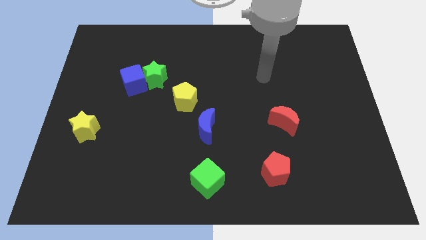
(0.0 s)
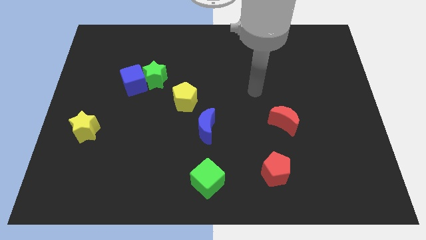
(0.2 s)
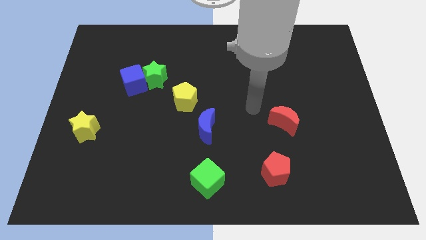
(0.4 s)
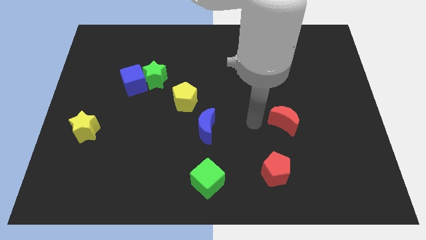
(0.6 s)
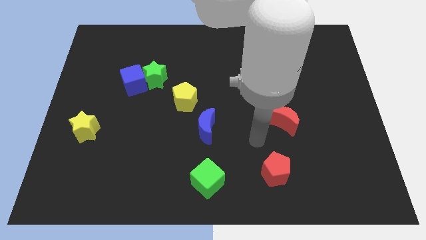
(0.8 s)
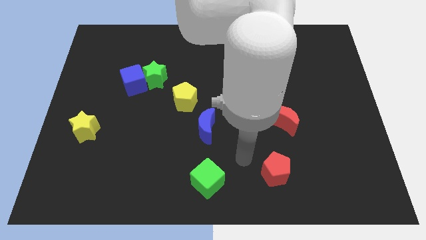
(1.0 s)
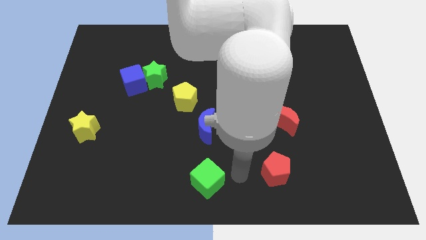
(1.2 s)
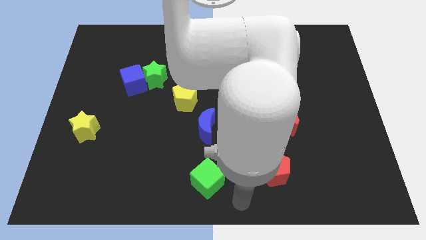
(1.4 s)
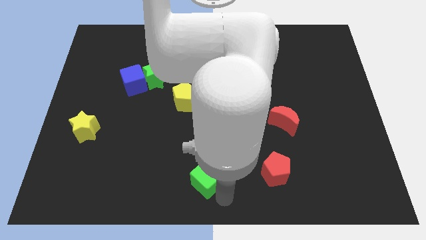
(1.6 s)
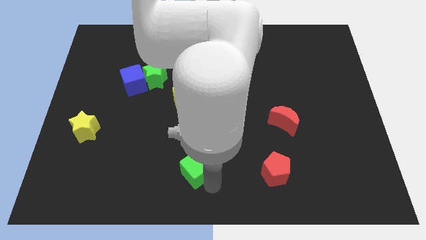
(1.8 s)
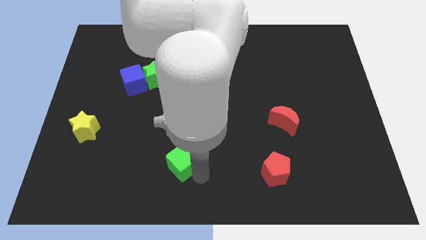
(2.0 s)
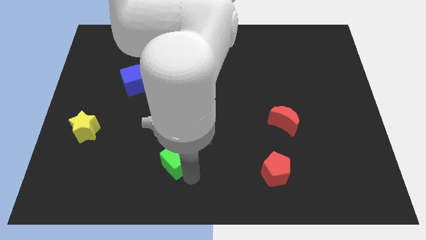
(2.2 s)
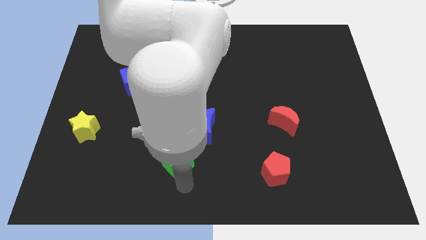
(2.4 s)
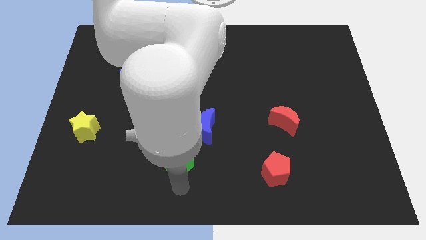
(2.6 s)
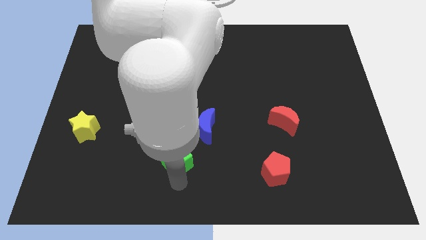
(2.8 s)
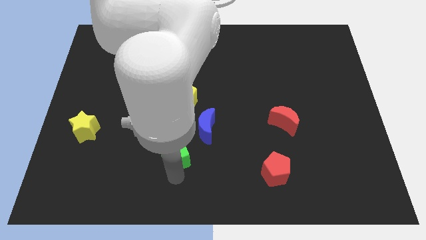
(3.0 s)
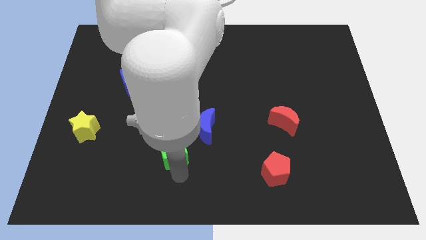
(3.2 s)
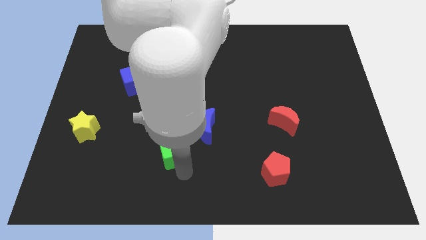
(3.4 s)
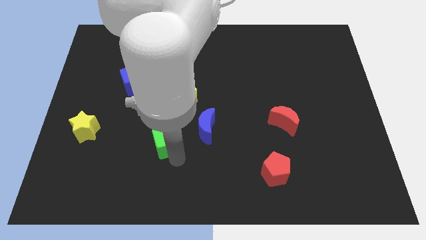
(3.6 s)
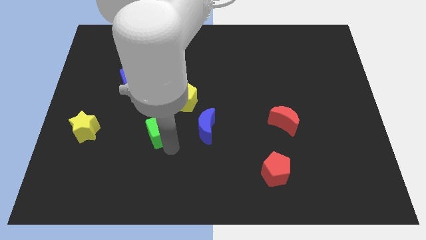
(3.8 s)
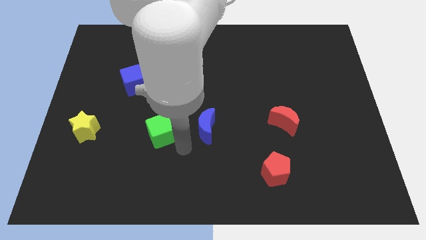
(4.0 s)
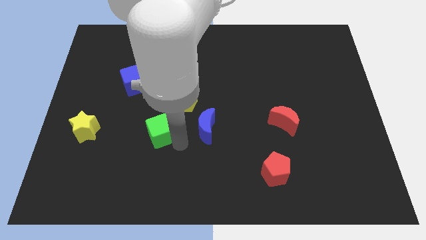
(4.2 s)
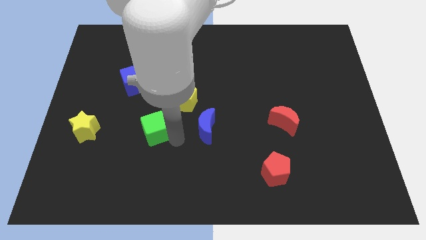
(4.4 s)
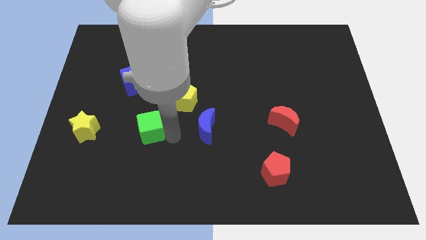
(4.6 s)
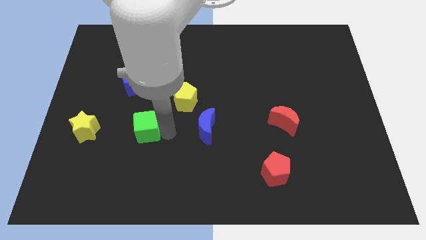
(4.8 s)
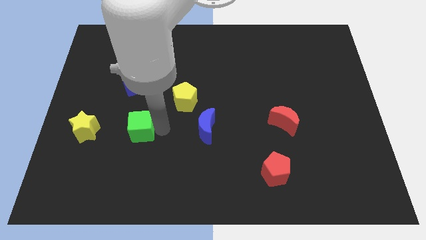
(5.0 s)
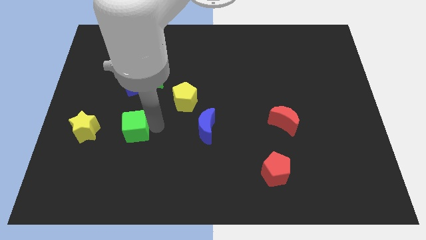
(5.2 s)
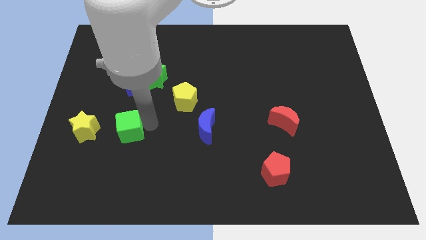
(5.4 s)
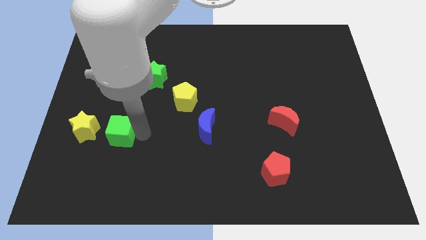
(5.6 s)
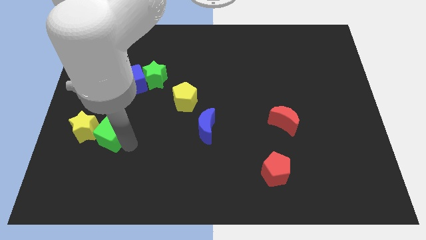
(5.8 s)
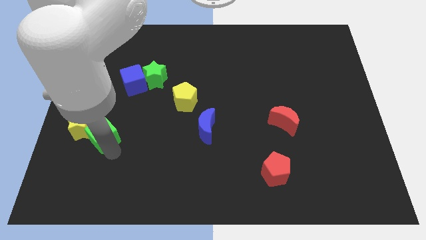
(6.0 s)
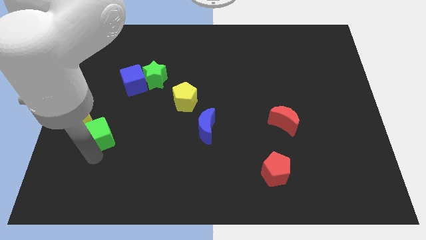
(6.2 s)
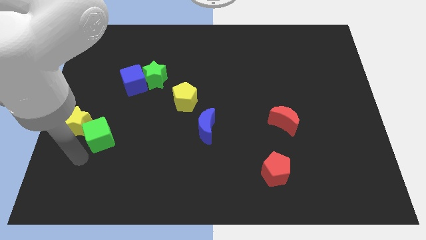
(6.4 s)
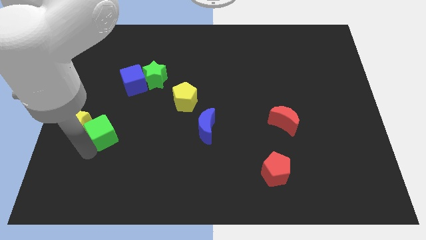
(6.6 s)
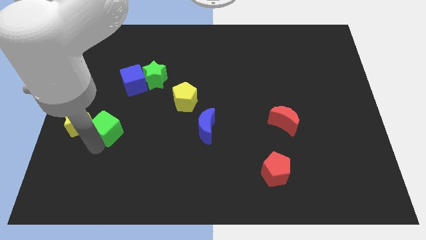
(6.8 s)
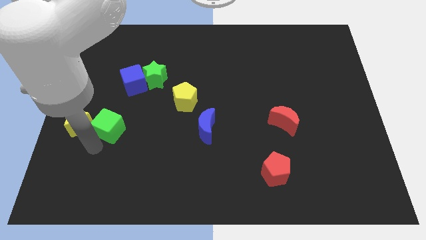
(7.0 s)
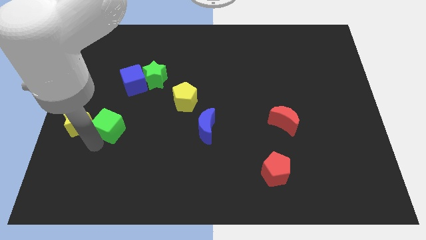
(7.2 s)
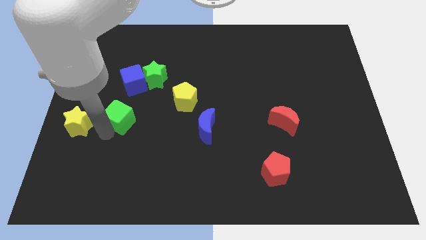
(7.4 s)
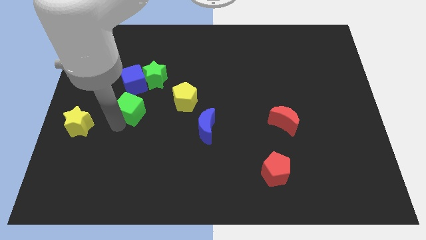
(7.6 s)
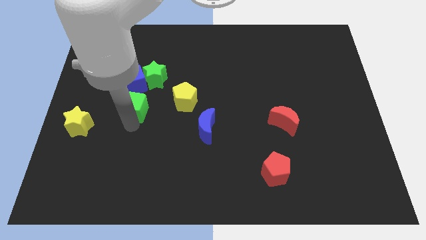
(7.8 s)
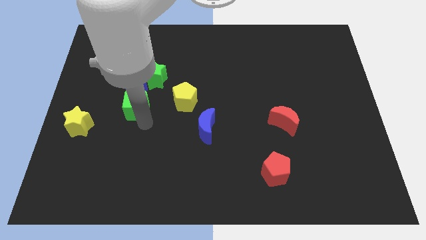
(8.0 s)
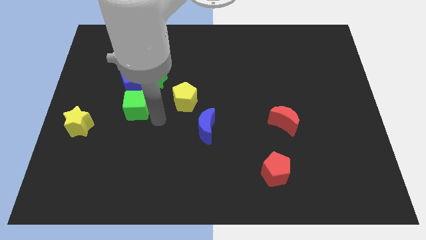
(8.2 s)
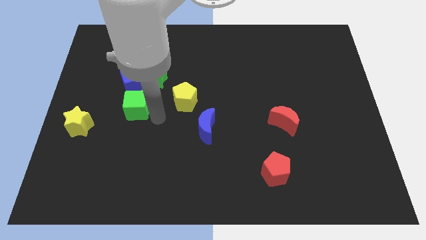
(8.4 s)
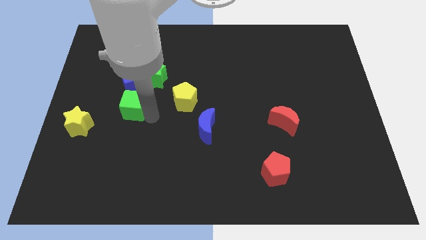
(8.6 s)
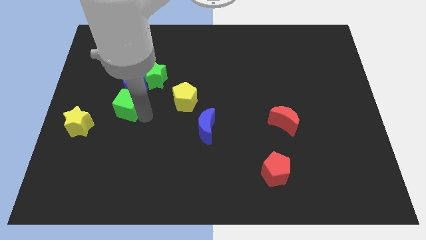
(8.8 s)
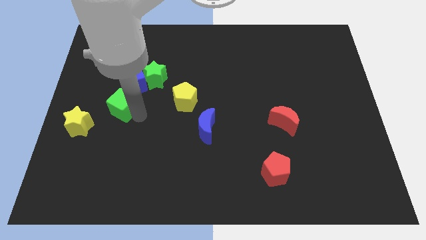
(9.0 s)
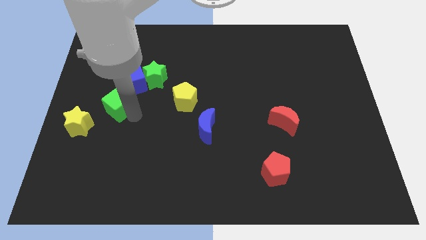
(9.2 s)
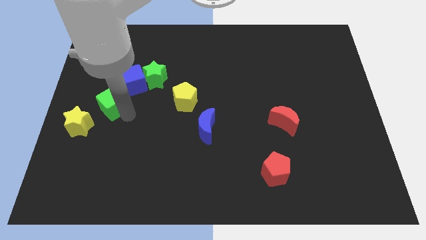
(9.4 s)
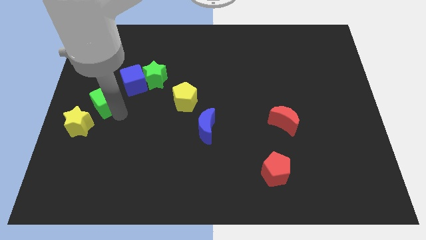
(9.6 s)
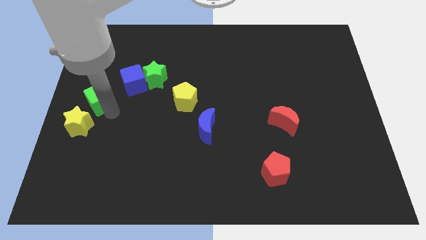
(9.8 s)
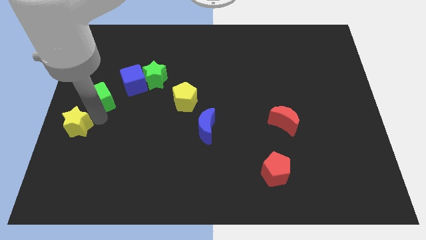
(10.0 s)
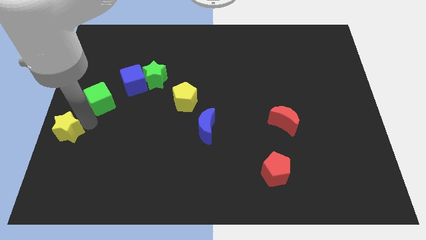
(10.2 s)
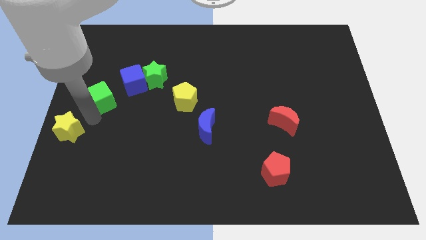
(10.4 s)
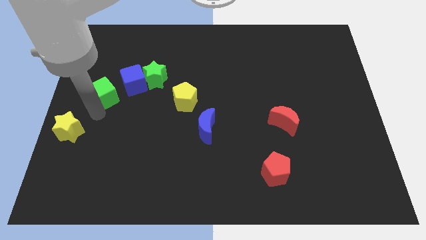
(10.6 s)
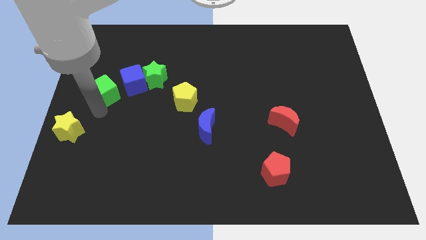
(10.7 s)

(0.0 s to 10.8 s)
put the green cube left of the green star

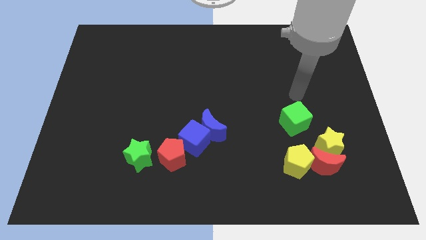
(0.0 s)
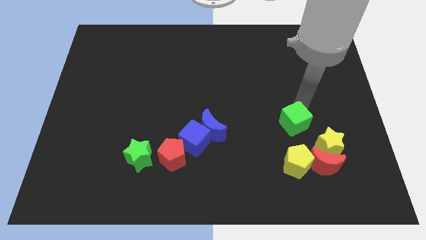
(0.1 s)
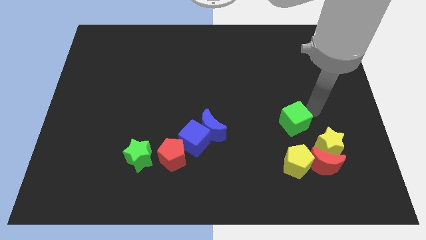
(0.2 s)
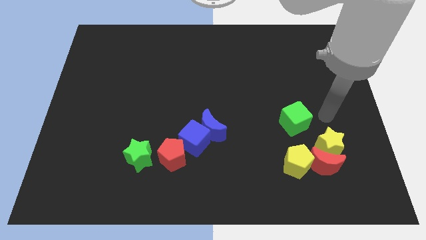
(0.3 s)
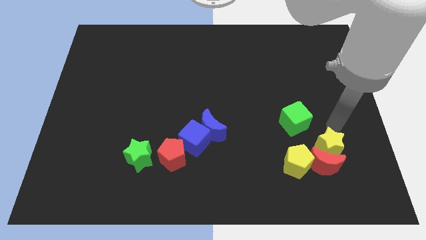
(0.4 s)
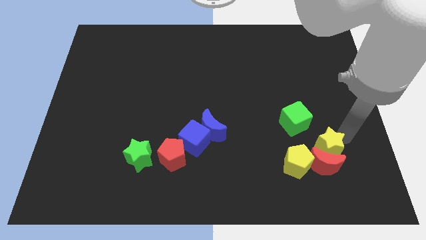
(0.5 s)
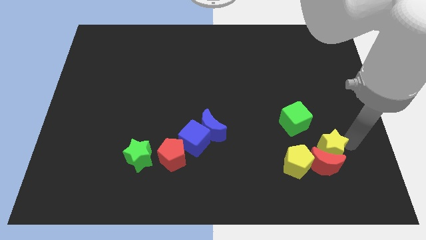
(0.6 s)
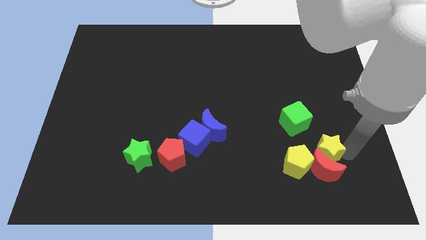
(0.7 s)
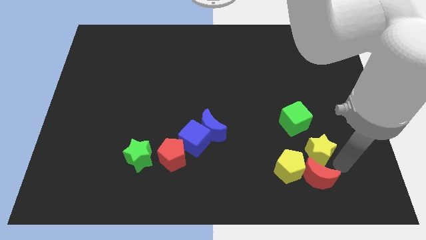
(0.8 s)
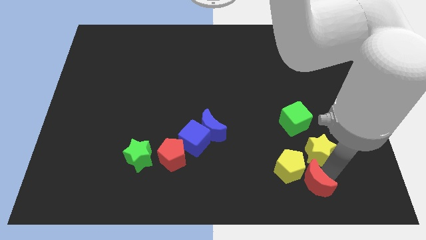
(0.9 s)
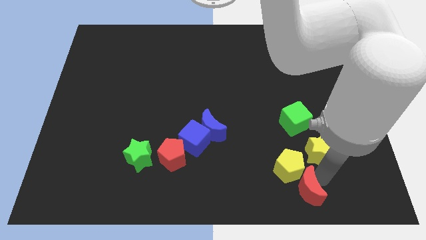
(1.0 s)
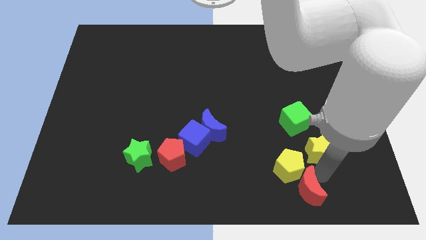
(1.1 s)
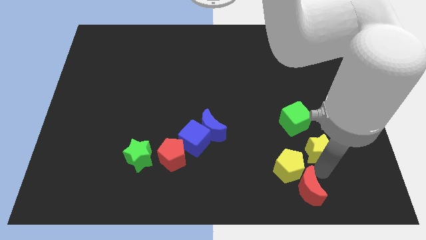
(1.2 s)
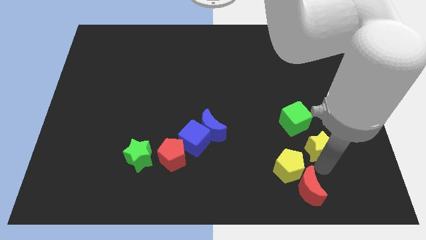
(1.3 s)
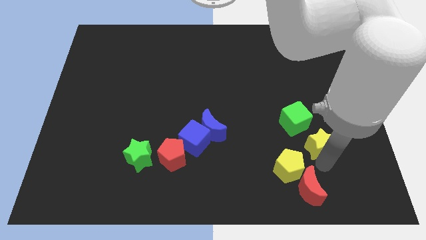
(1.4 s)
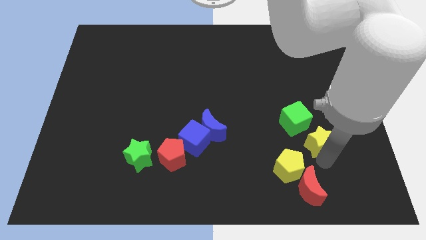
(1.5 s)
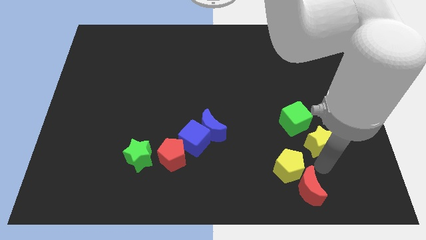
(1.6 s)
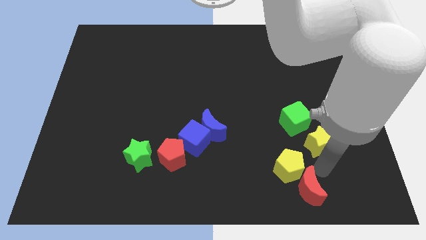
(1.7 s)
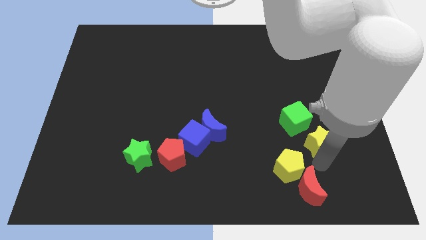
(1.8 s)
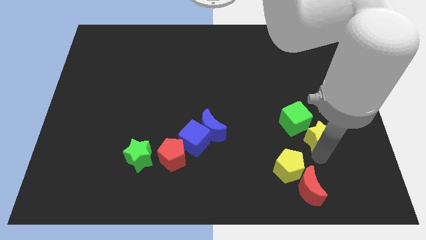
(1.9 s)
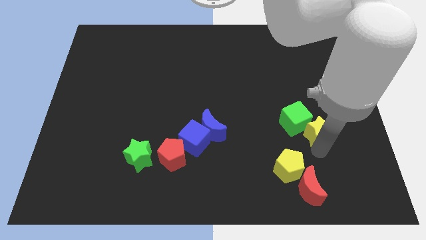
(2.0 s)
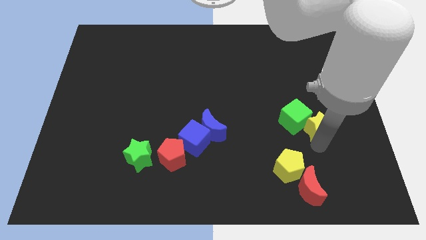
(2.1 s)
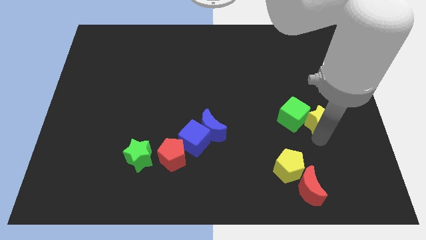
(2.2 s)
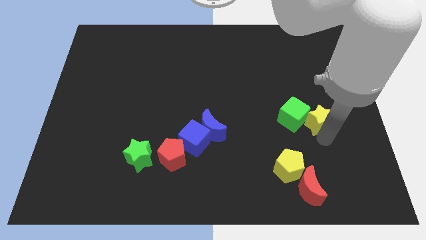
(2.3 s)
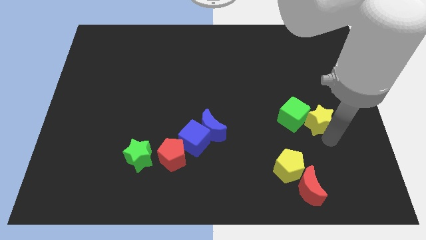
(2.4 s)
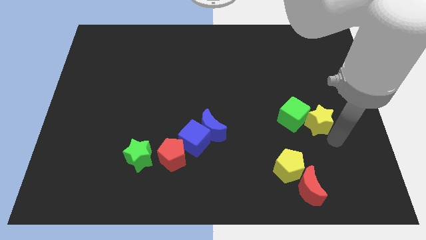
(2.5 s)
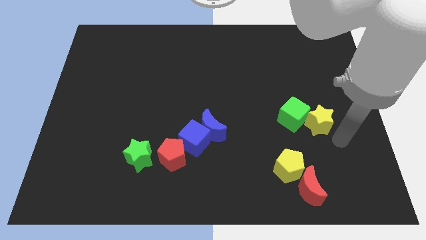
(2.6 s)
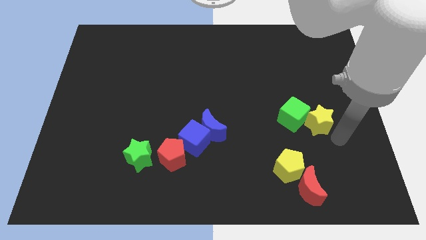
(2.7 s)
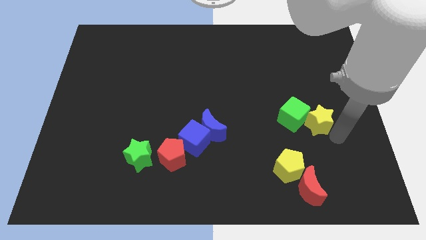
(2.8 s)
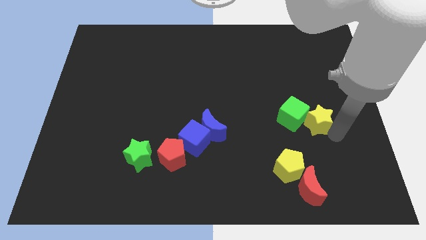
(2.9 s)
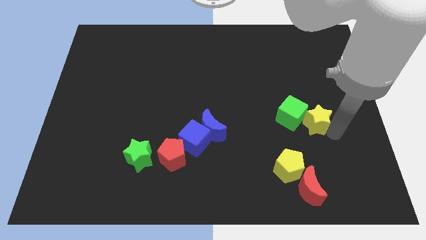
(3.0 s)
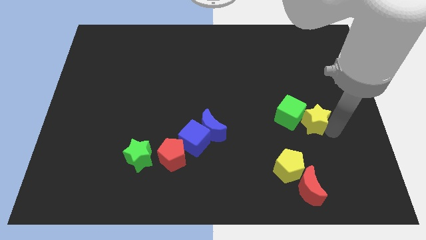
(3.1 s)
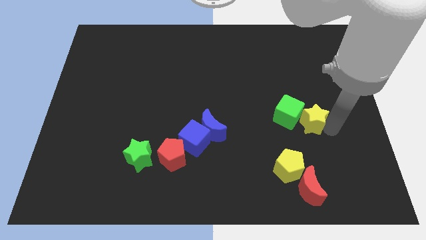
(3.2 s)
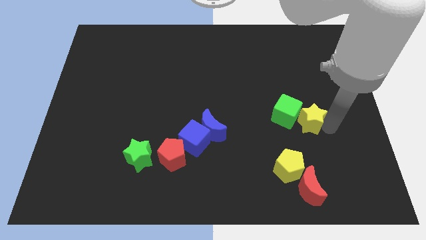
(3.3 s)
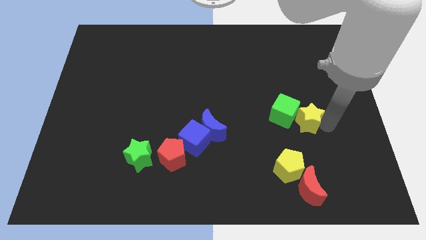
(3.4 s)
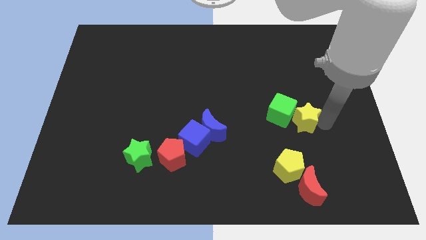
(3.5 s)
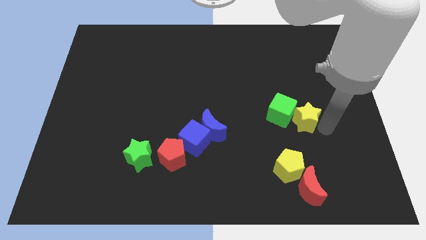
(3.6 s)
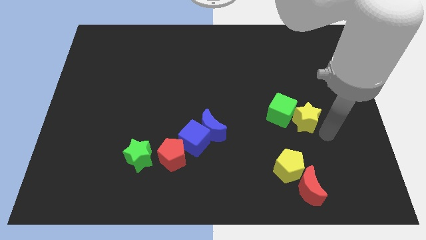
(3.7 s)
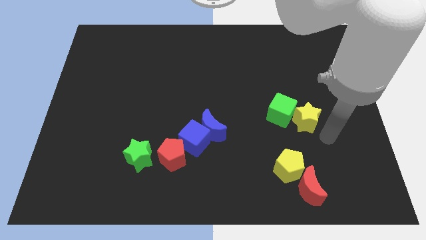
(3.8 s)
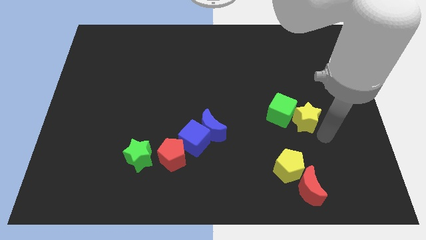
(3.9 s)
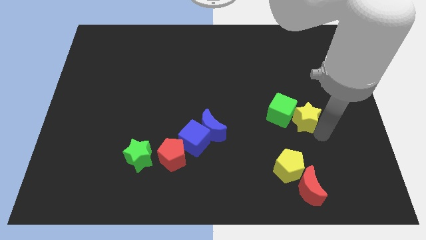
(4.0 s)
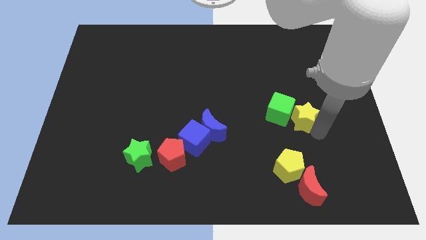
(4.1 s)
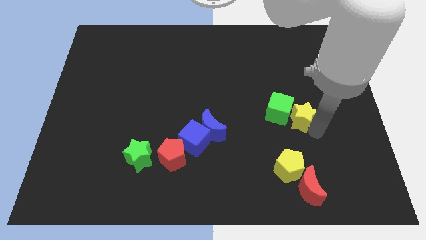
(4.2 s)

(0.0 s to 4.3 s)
push the yellow star to the top side of the yellow pentagon
